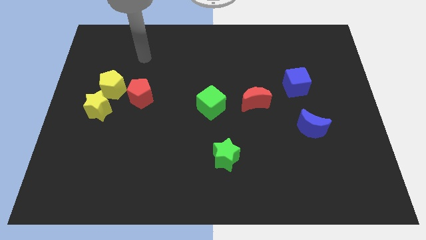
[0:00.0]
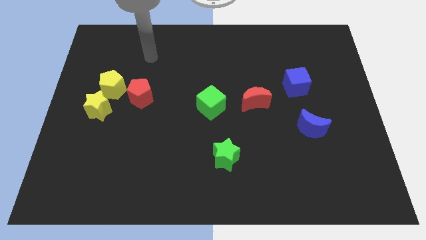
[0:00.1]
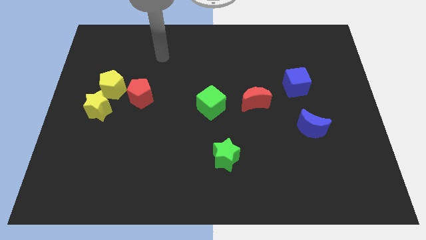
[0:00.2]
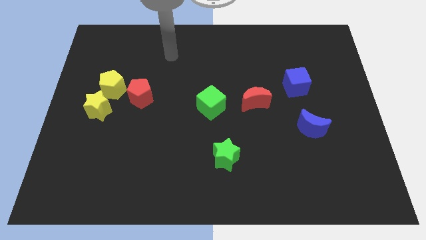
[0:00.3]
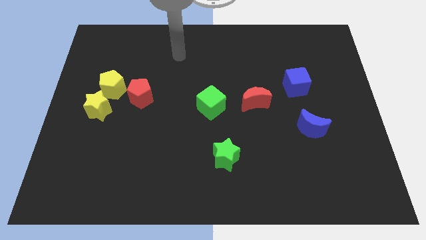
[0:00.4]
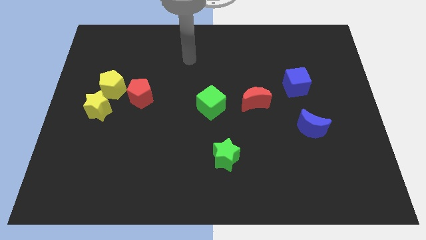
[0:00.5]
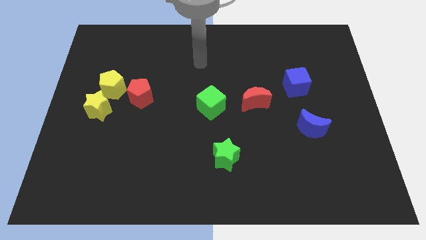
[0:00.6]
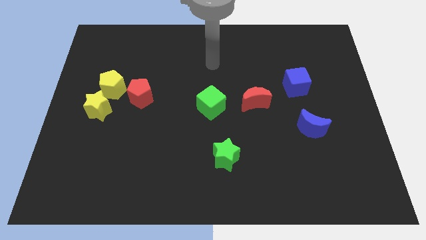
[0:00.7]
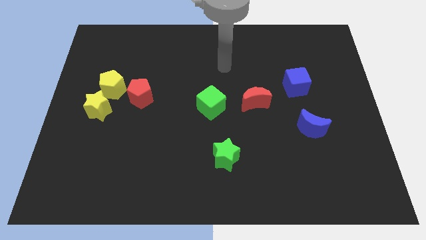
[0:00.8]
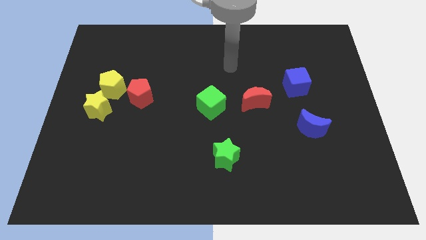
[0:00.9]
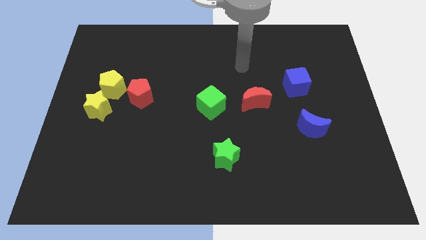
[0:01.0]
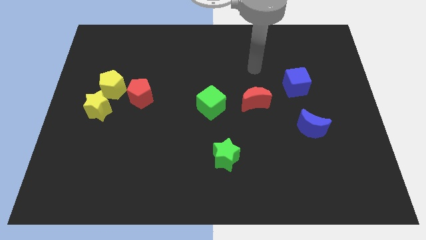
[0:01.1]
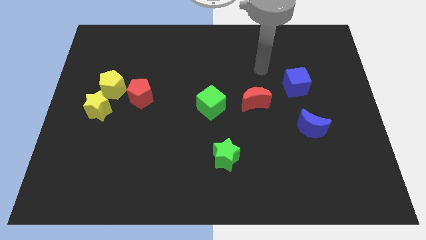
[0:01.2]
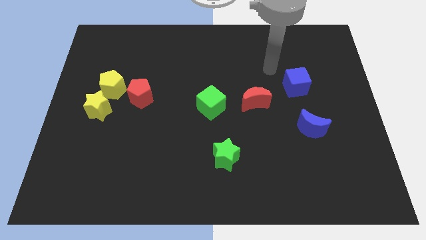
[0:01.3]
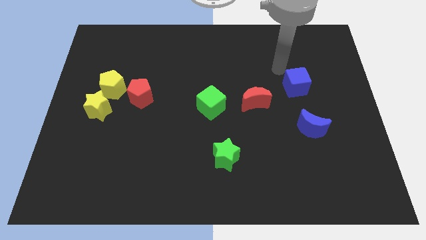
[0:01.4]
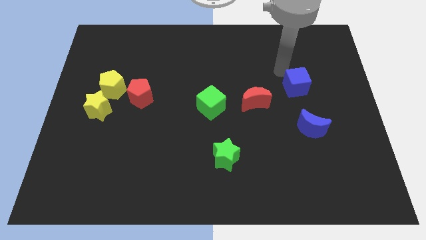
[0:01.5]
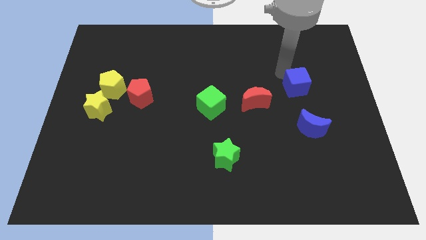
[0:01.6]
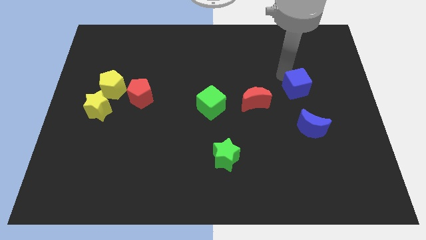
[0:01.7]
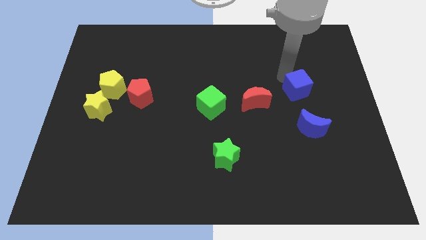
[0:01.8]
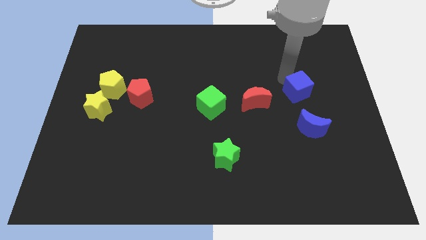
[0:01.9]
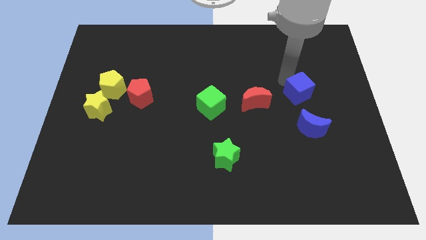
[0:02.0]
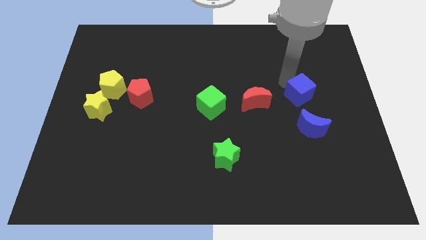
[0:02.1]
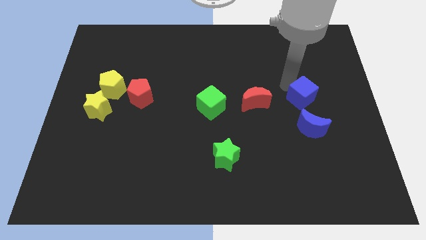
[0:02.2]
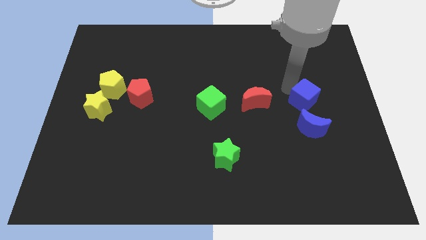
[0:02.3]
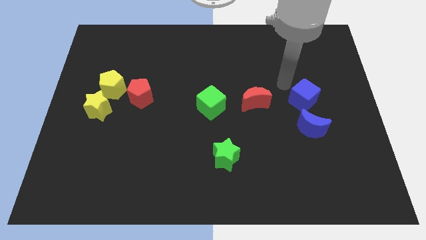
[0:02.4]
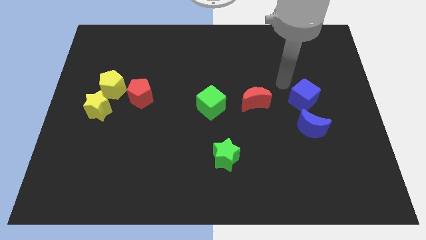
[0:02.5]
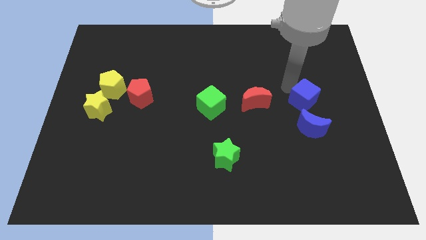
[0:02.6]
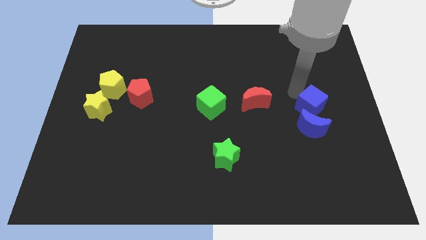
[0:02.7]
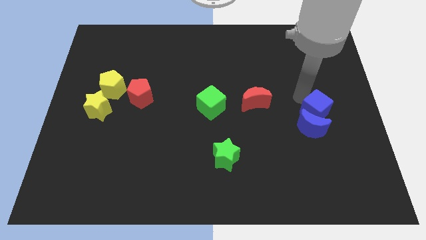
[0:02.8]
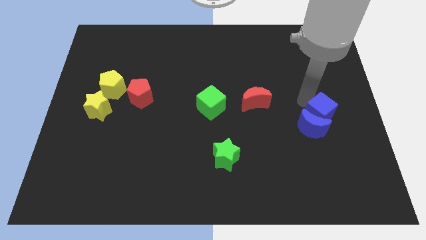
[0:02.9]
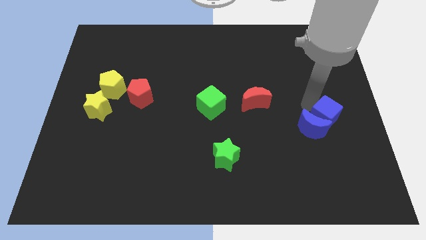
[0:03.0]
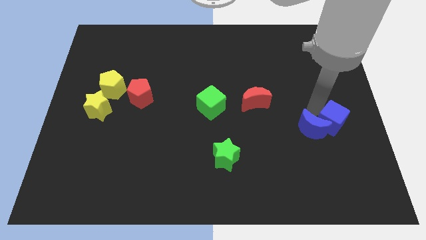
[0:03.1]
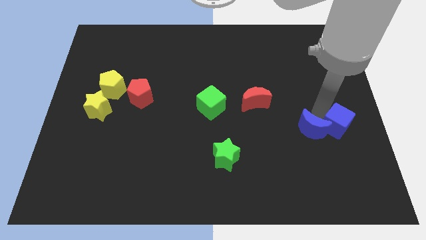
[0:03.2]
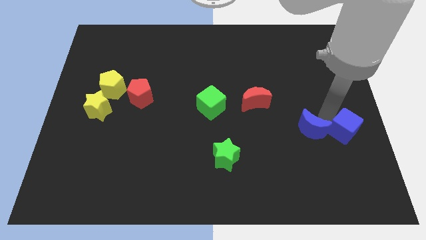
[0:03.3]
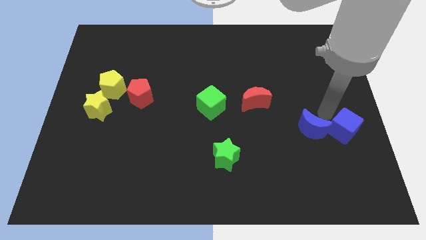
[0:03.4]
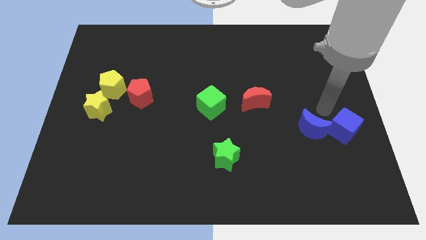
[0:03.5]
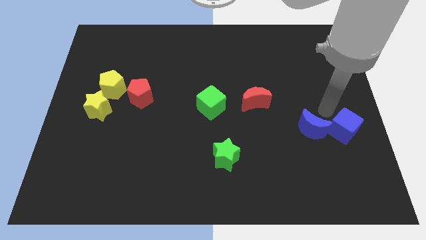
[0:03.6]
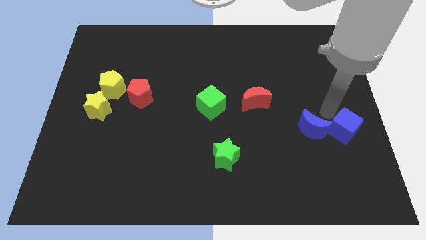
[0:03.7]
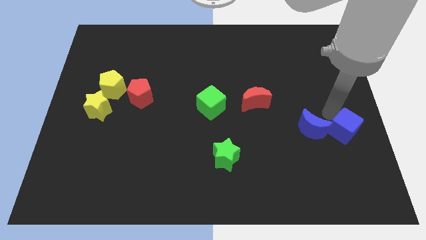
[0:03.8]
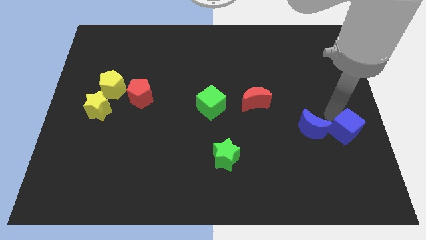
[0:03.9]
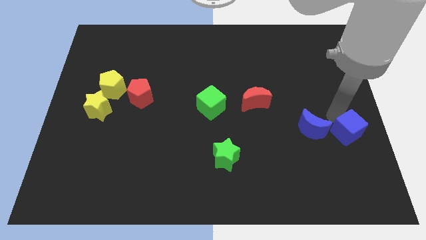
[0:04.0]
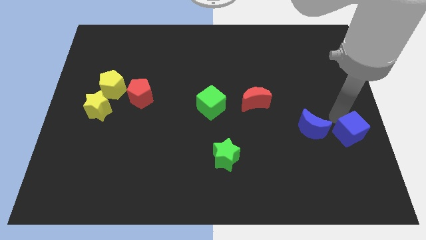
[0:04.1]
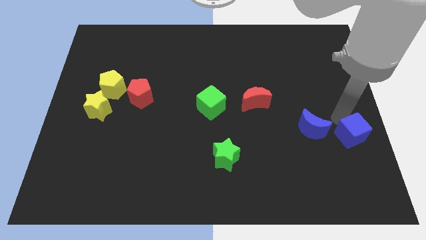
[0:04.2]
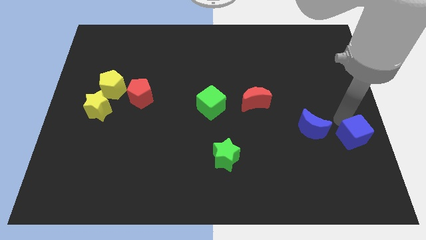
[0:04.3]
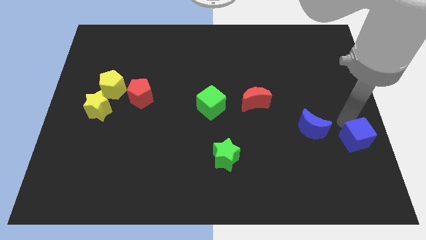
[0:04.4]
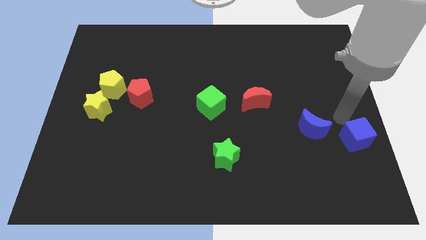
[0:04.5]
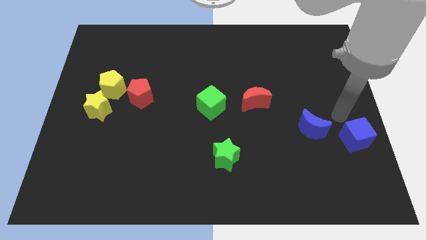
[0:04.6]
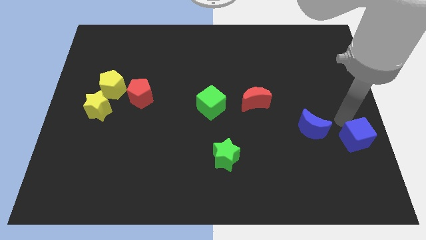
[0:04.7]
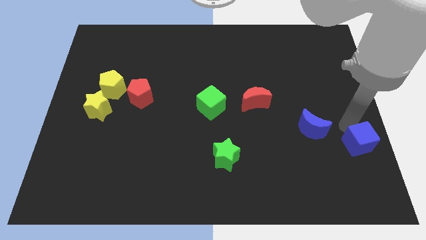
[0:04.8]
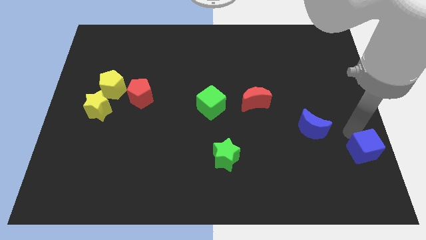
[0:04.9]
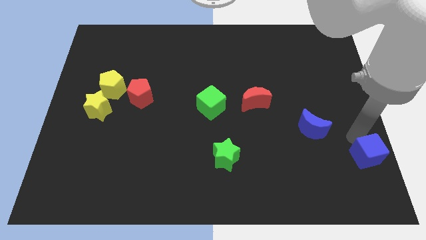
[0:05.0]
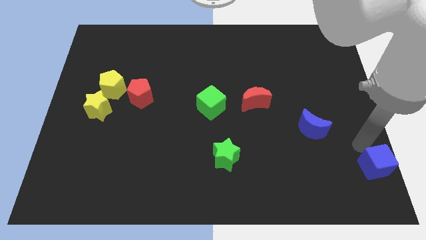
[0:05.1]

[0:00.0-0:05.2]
slide the blue cube to the bottom right
